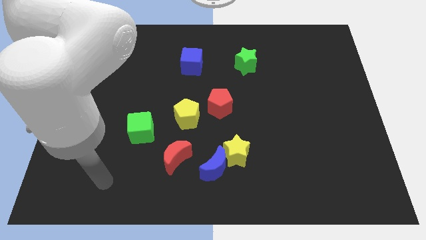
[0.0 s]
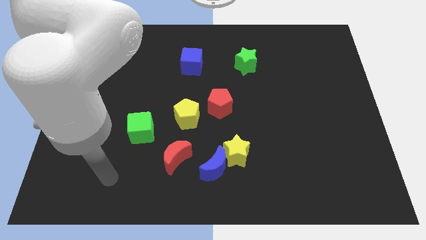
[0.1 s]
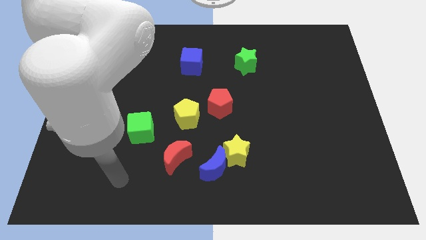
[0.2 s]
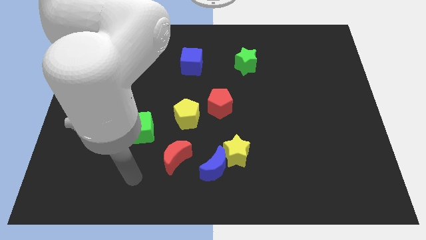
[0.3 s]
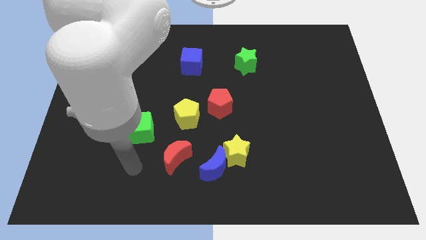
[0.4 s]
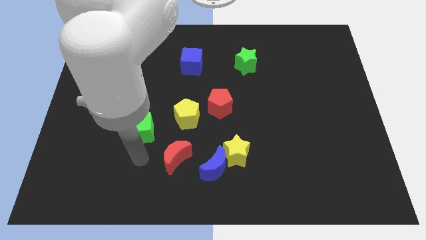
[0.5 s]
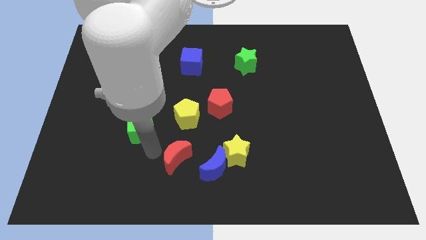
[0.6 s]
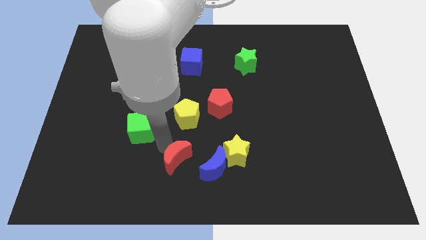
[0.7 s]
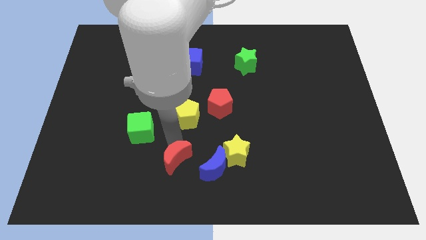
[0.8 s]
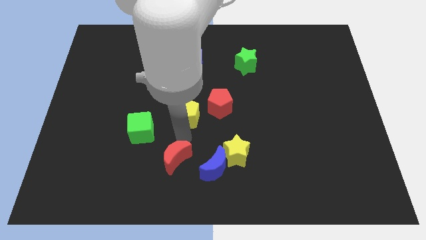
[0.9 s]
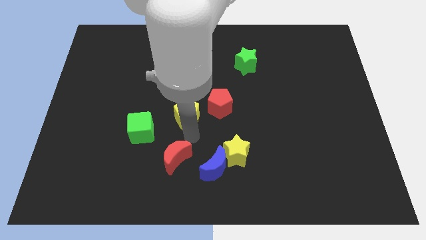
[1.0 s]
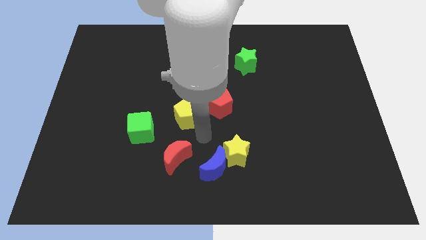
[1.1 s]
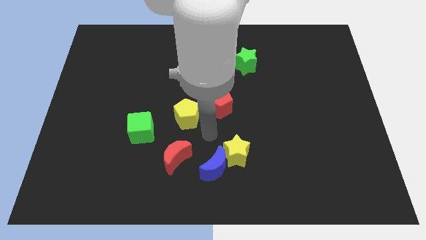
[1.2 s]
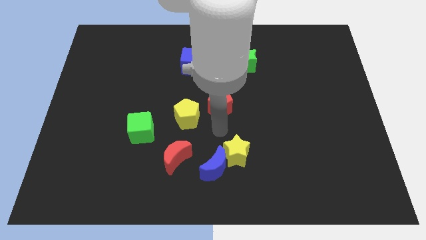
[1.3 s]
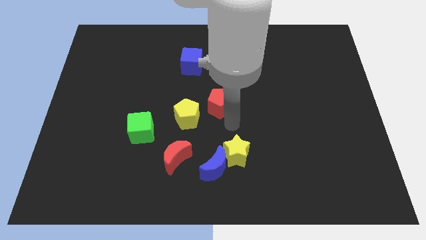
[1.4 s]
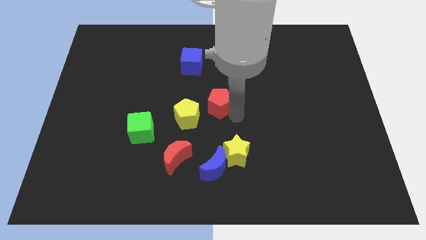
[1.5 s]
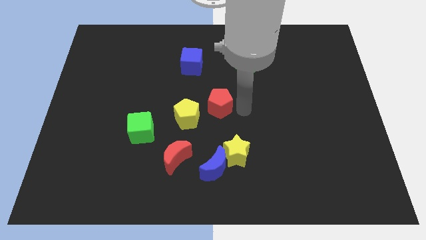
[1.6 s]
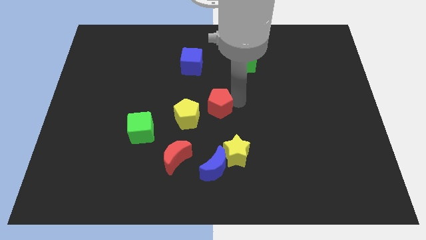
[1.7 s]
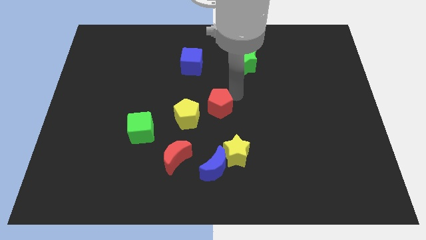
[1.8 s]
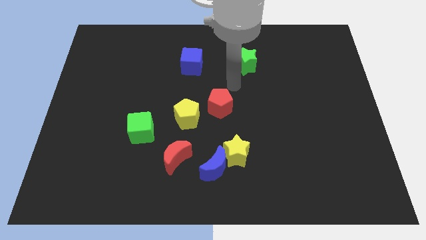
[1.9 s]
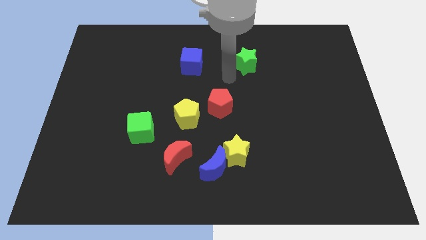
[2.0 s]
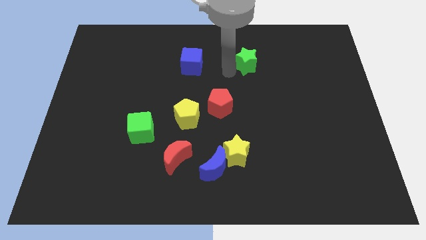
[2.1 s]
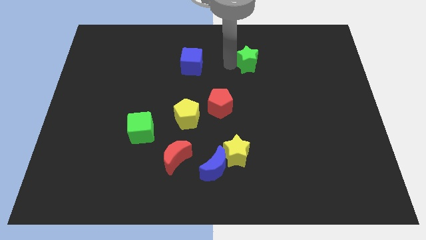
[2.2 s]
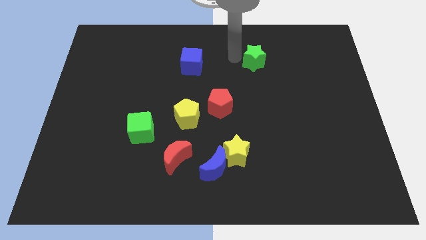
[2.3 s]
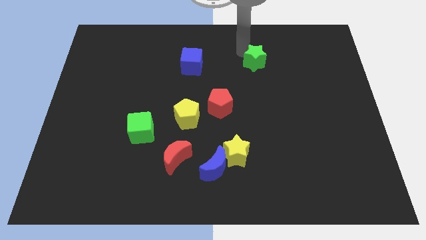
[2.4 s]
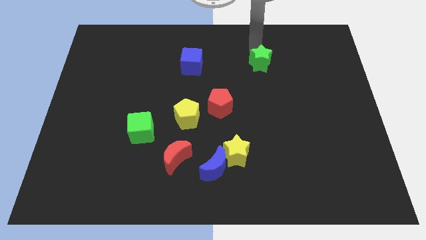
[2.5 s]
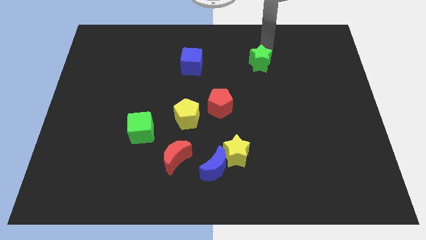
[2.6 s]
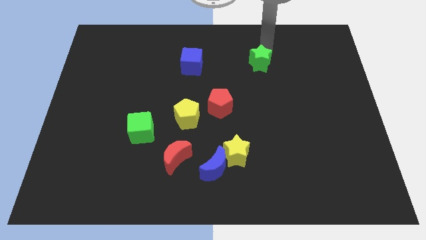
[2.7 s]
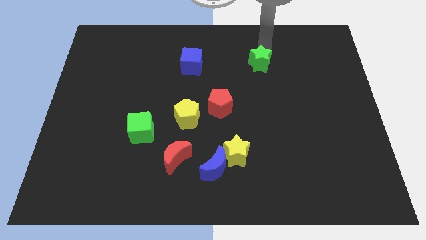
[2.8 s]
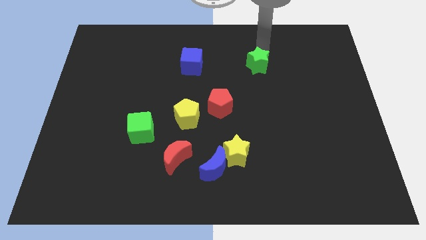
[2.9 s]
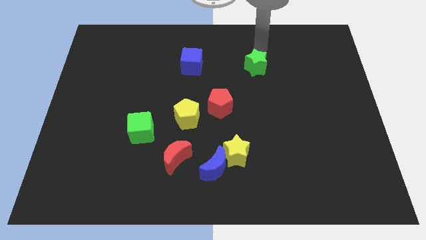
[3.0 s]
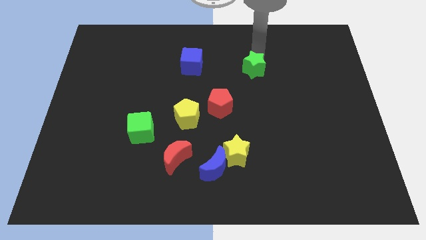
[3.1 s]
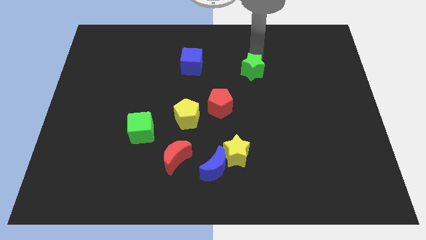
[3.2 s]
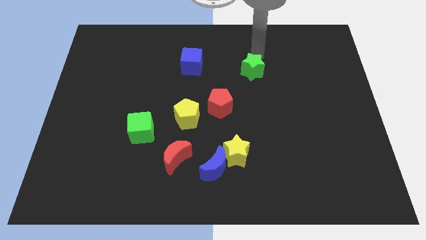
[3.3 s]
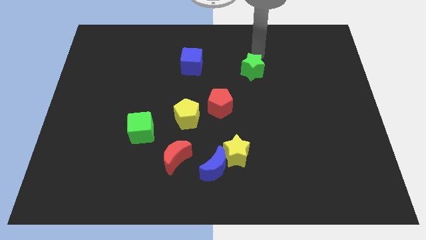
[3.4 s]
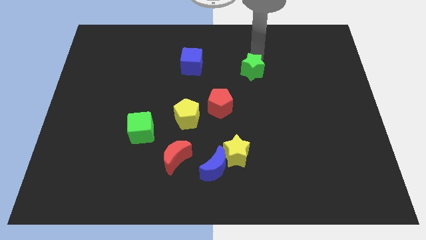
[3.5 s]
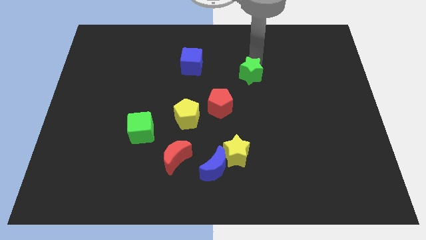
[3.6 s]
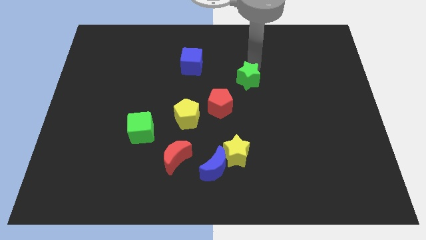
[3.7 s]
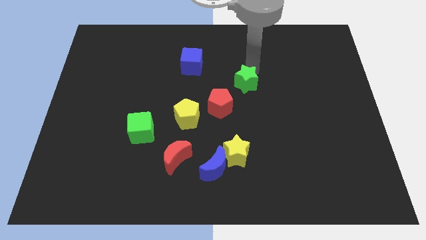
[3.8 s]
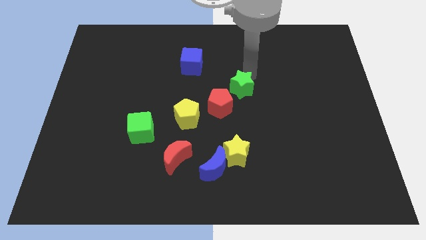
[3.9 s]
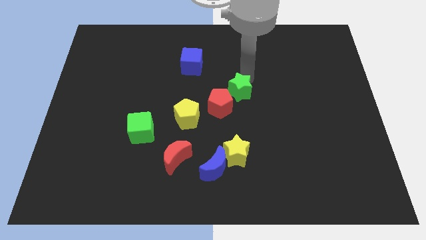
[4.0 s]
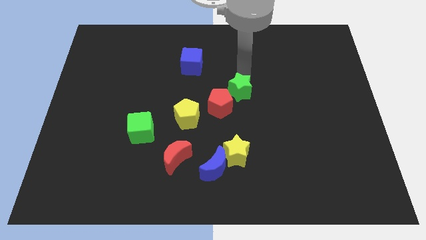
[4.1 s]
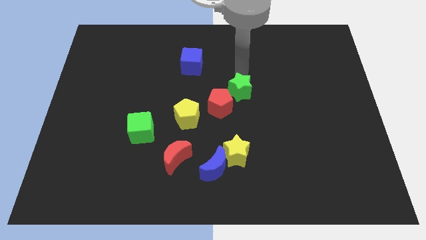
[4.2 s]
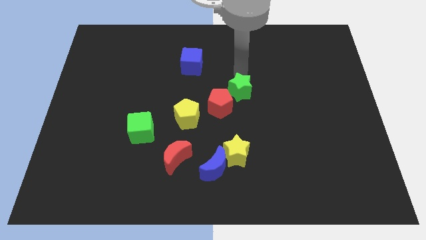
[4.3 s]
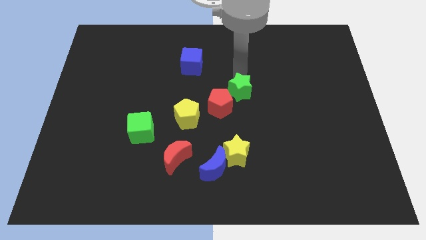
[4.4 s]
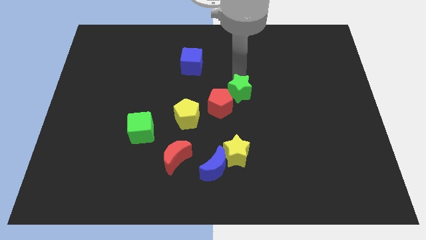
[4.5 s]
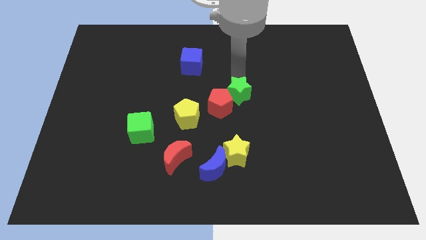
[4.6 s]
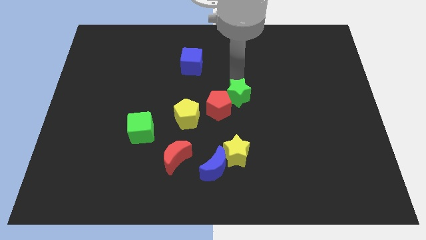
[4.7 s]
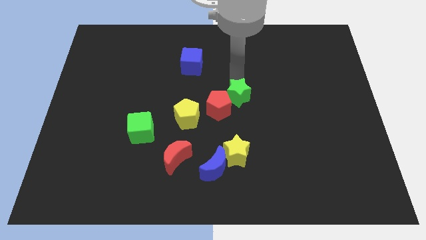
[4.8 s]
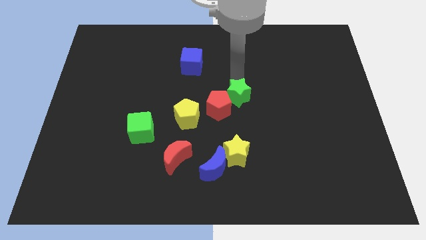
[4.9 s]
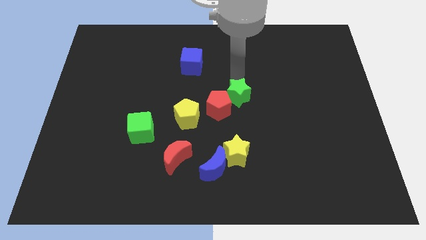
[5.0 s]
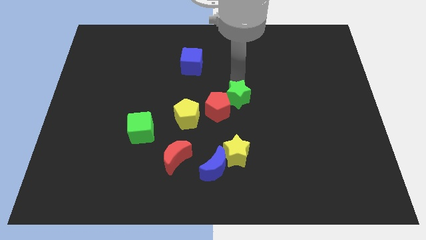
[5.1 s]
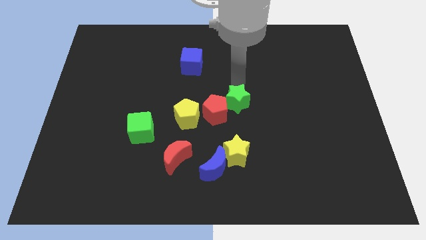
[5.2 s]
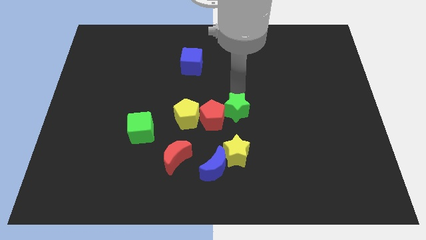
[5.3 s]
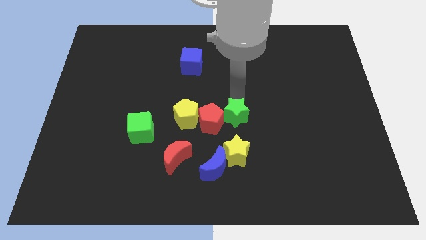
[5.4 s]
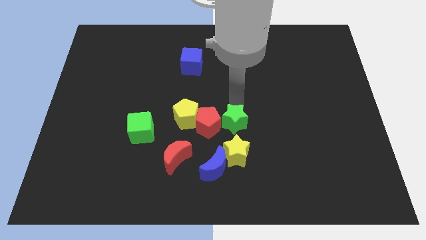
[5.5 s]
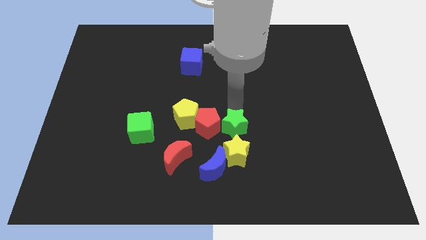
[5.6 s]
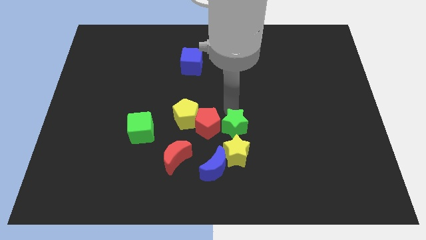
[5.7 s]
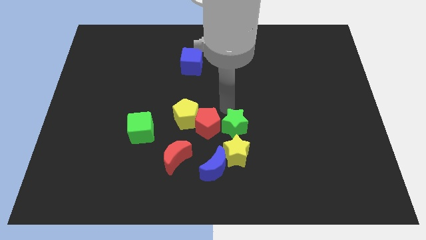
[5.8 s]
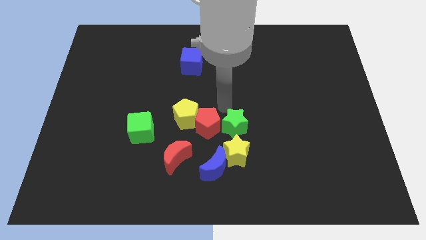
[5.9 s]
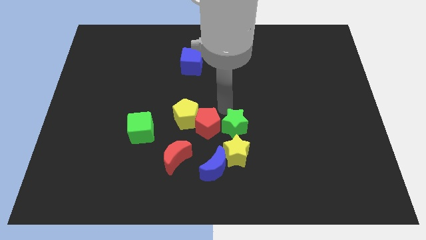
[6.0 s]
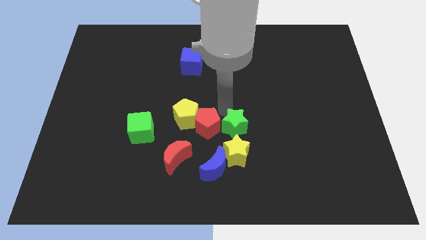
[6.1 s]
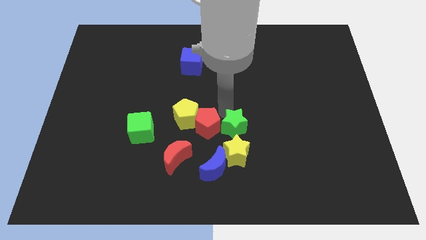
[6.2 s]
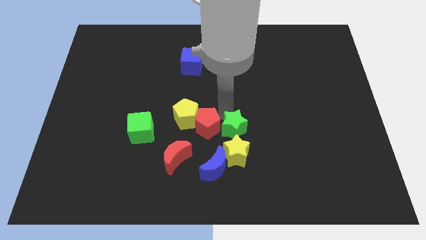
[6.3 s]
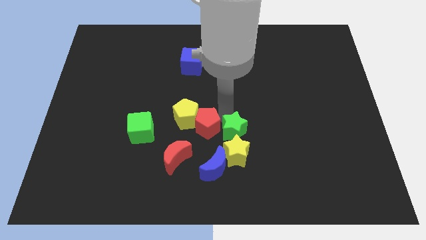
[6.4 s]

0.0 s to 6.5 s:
put the green star next to the yellow star

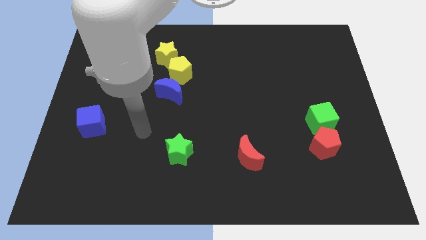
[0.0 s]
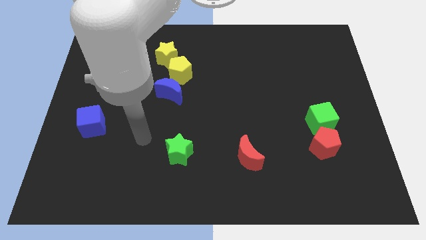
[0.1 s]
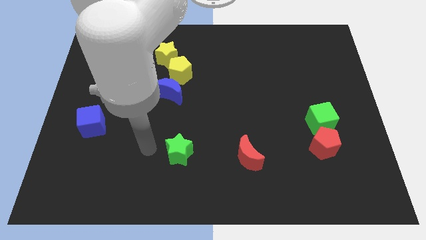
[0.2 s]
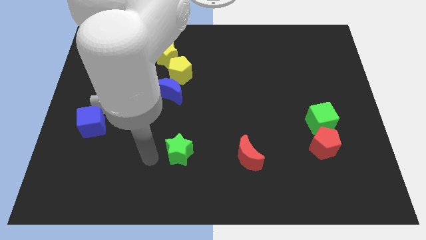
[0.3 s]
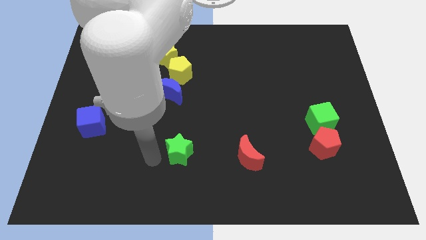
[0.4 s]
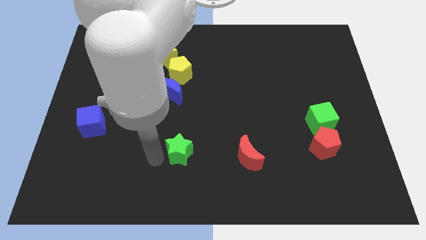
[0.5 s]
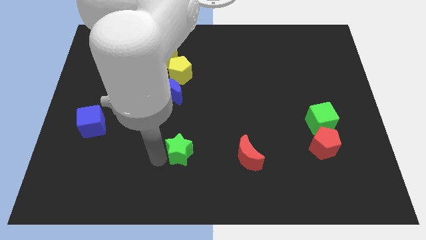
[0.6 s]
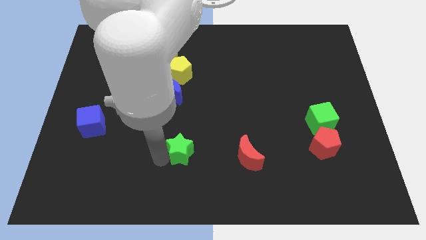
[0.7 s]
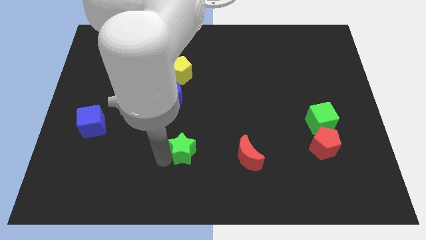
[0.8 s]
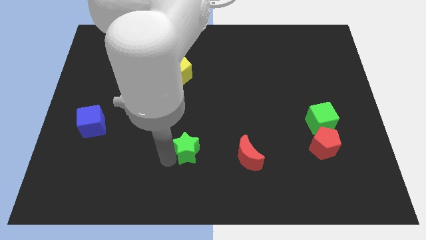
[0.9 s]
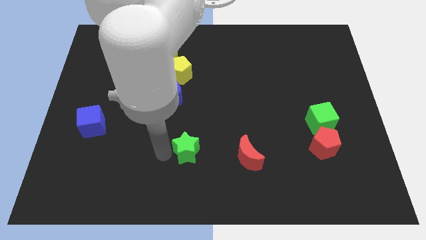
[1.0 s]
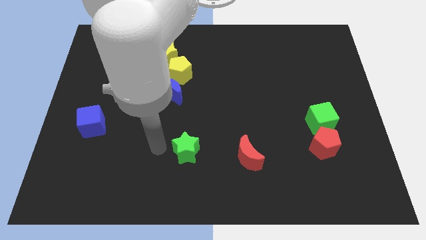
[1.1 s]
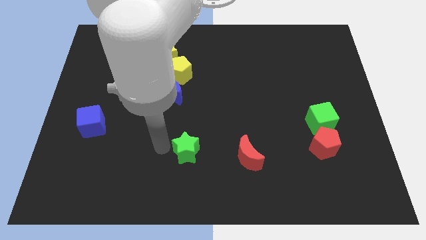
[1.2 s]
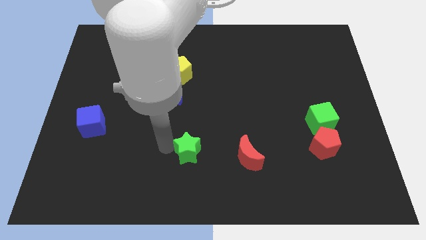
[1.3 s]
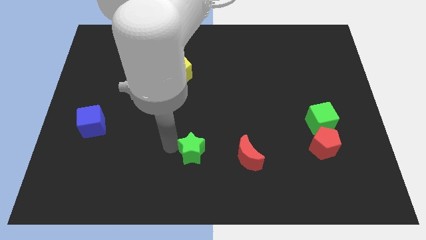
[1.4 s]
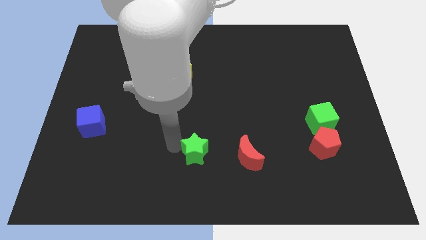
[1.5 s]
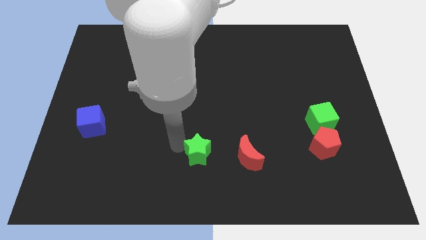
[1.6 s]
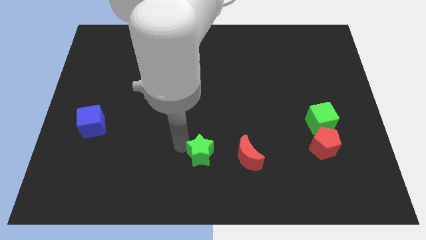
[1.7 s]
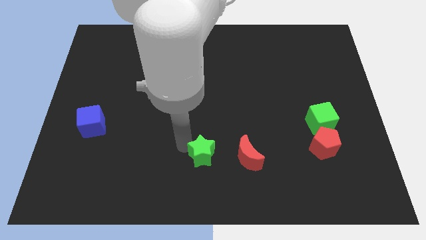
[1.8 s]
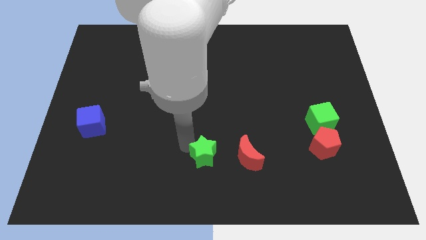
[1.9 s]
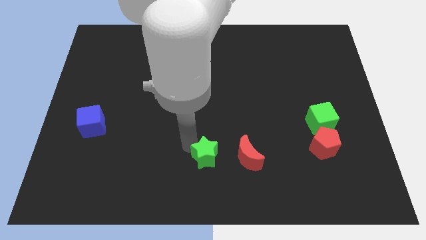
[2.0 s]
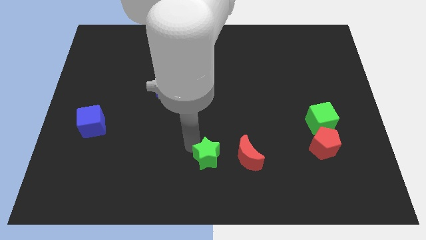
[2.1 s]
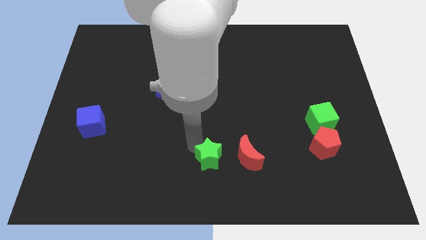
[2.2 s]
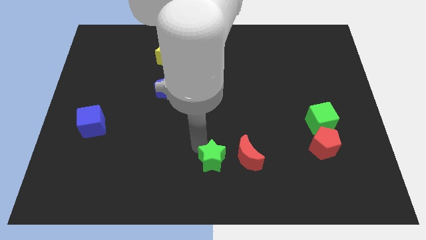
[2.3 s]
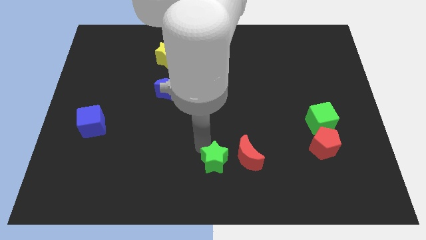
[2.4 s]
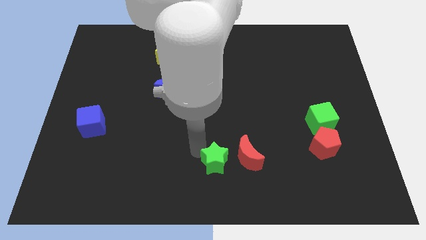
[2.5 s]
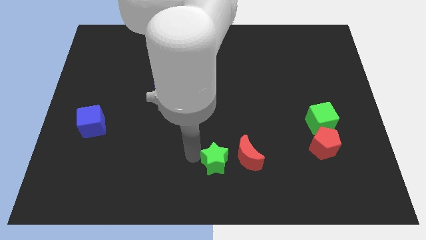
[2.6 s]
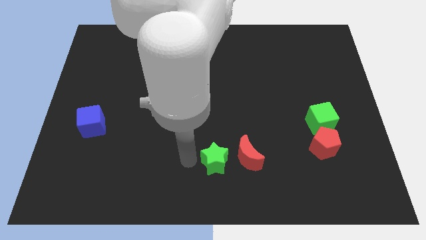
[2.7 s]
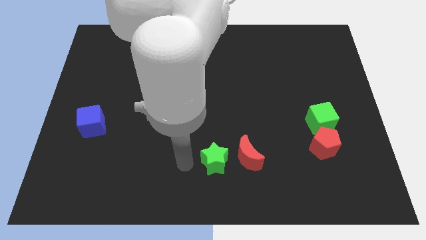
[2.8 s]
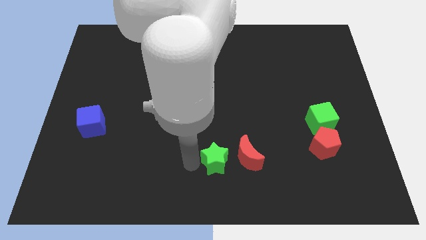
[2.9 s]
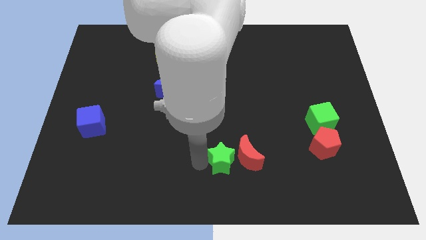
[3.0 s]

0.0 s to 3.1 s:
move the green star next to the red moon
